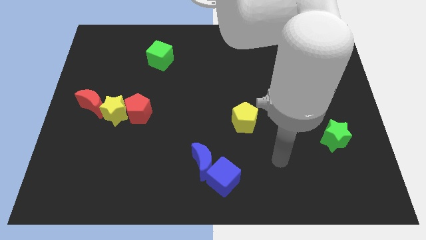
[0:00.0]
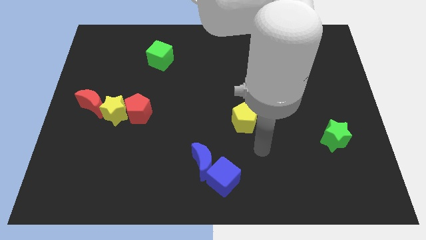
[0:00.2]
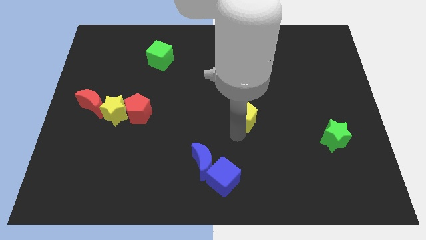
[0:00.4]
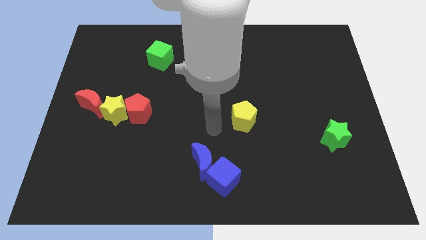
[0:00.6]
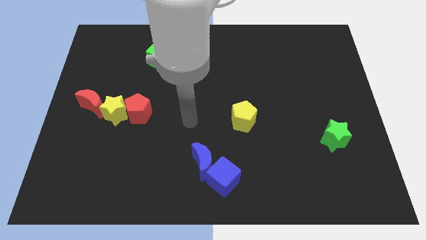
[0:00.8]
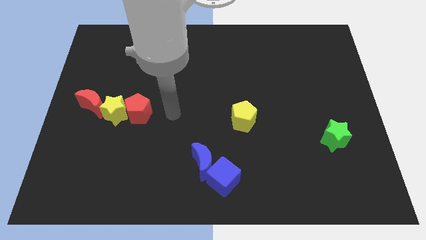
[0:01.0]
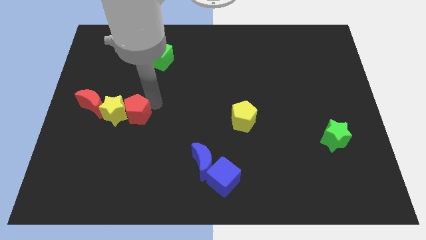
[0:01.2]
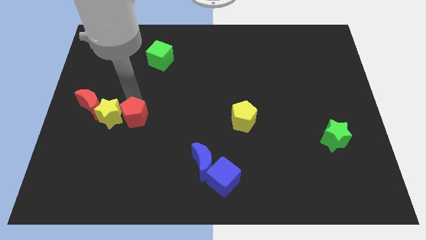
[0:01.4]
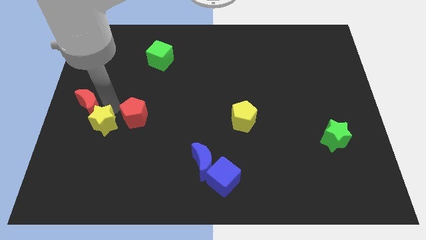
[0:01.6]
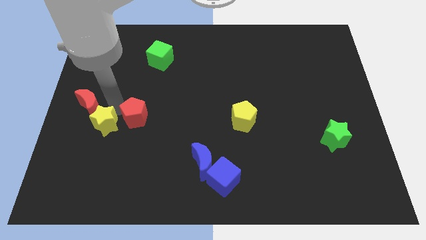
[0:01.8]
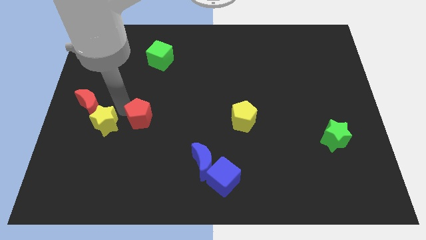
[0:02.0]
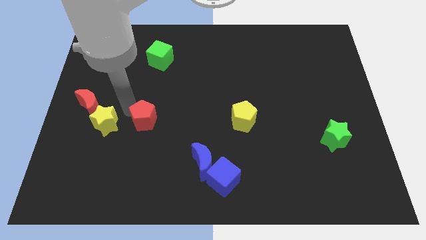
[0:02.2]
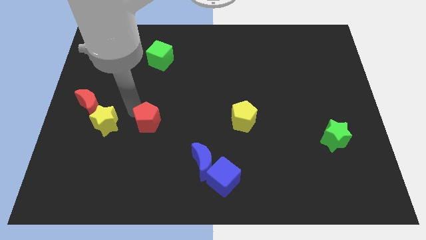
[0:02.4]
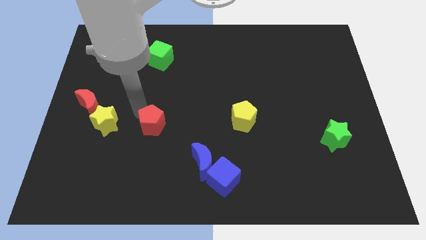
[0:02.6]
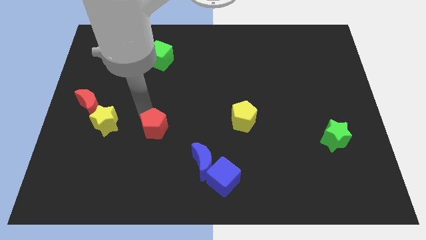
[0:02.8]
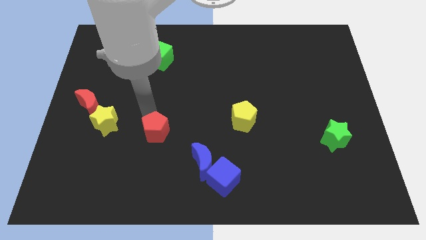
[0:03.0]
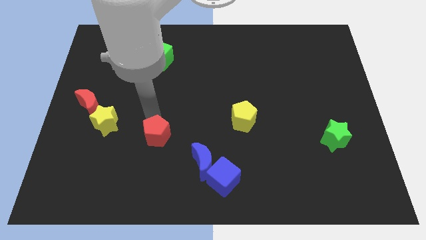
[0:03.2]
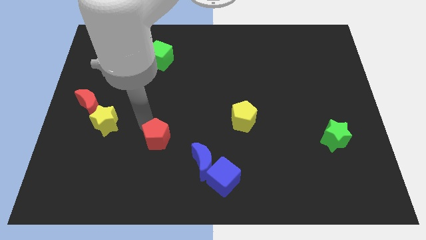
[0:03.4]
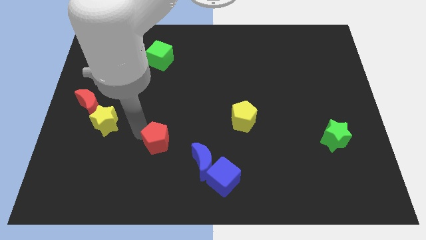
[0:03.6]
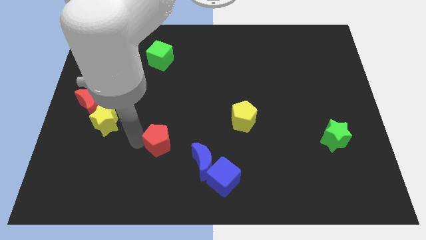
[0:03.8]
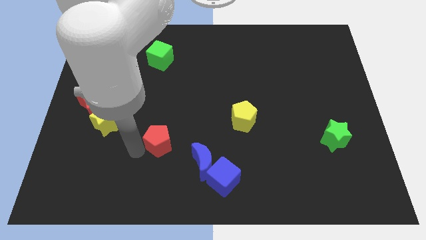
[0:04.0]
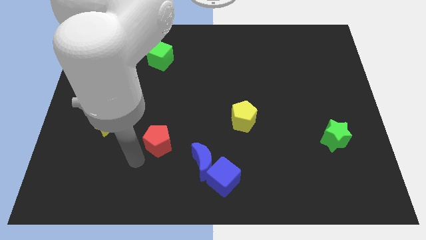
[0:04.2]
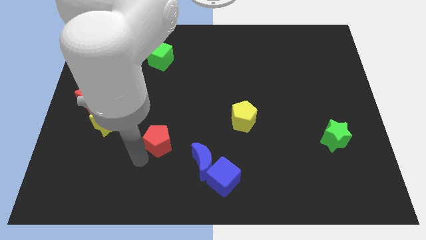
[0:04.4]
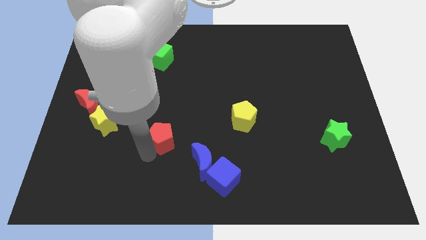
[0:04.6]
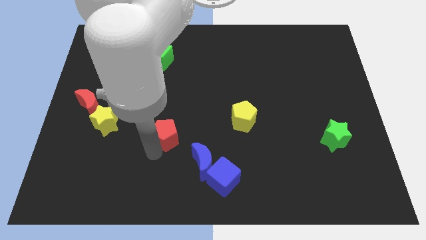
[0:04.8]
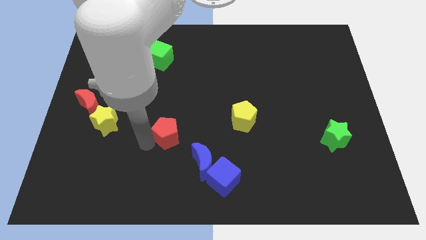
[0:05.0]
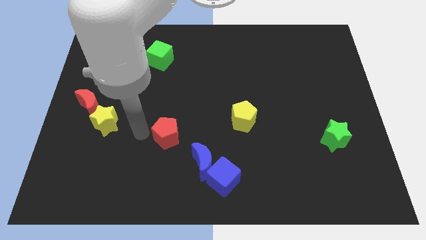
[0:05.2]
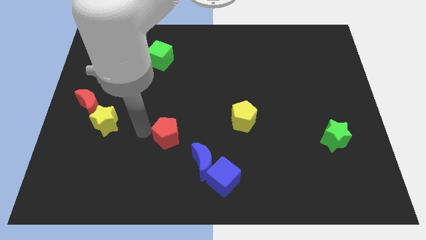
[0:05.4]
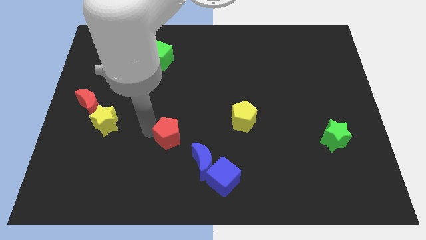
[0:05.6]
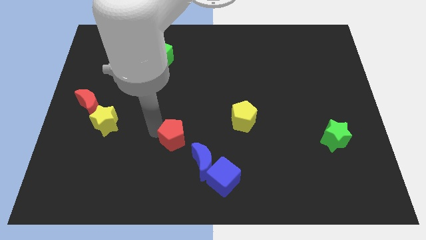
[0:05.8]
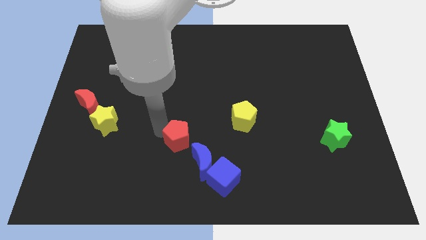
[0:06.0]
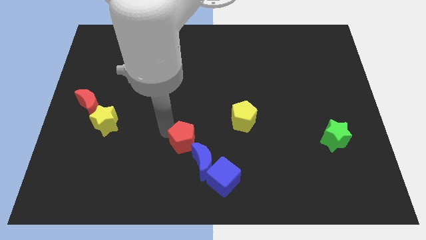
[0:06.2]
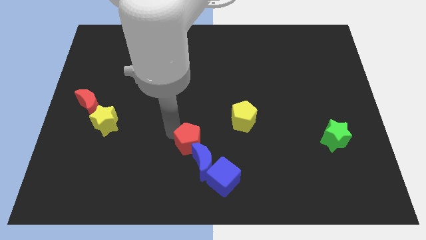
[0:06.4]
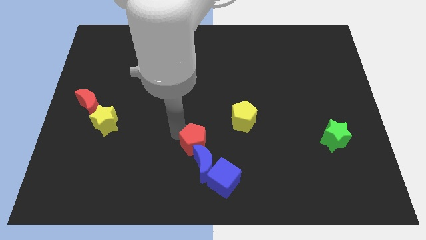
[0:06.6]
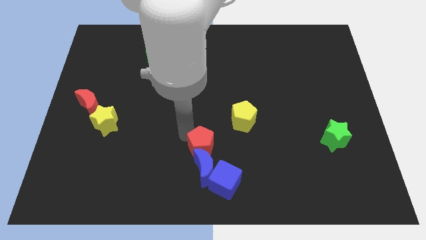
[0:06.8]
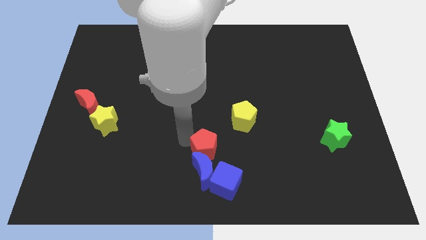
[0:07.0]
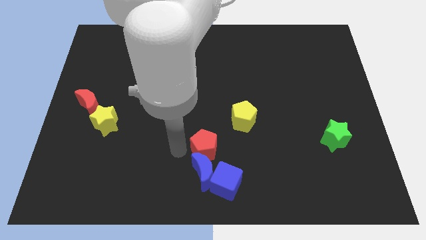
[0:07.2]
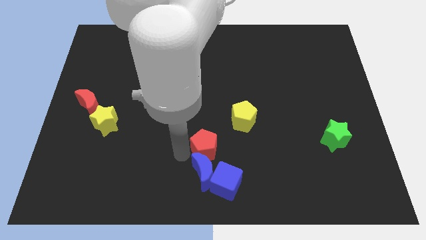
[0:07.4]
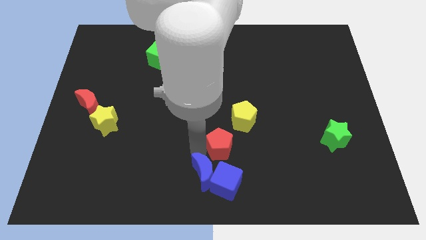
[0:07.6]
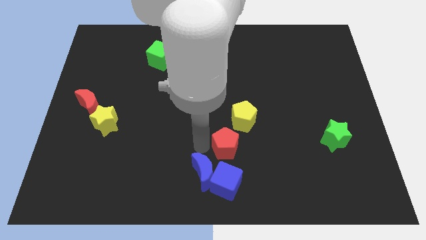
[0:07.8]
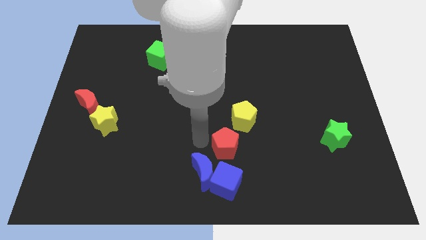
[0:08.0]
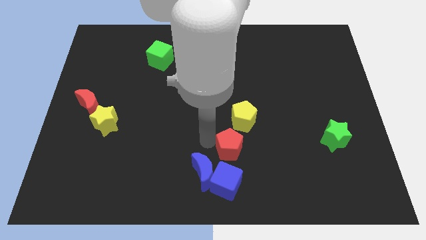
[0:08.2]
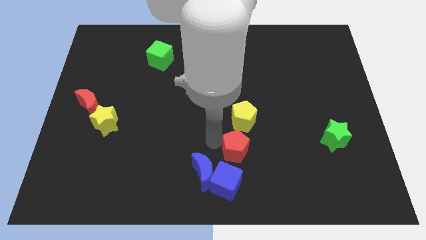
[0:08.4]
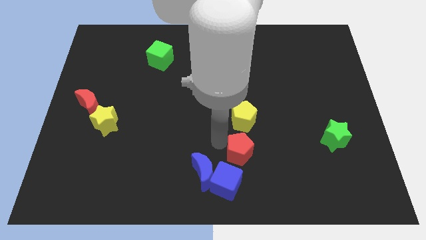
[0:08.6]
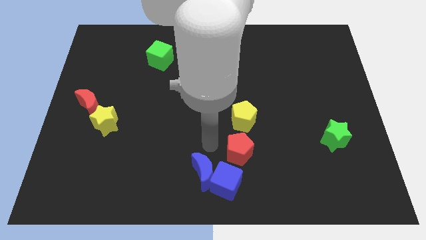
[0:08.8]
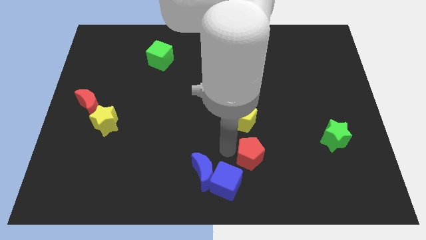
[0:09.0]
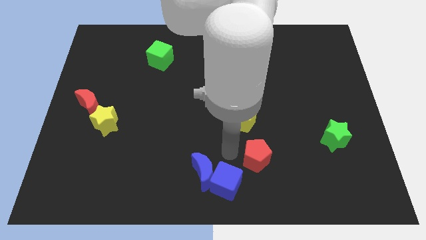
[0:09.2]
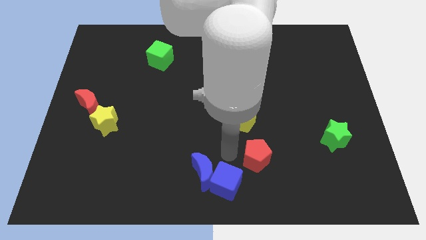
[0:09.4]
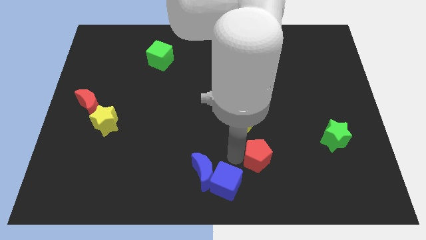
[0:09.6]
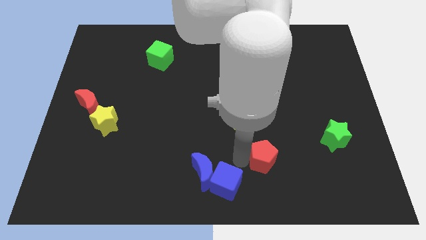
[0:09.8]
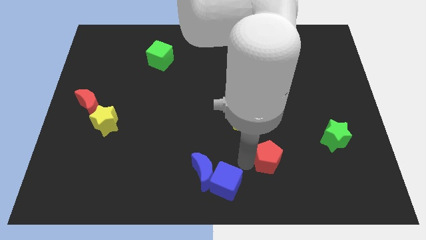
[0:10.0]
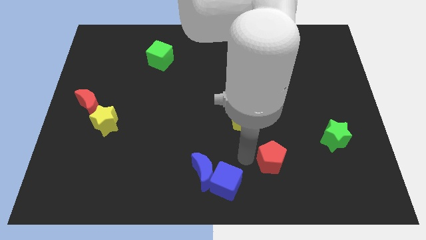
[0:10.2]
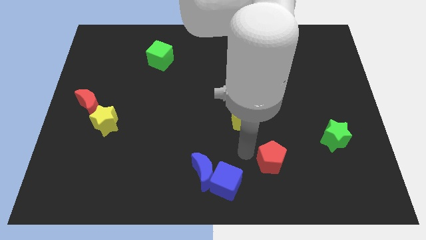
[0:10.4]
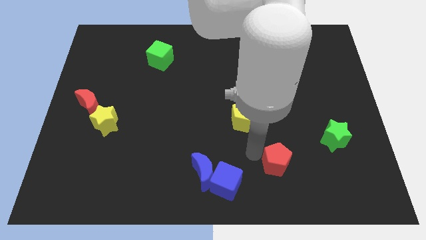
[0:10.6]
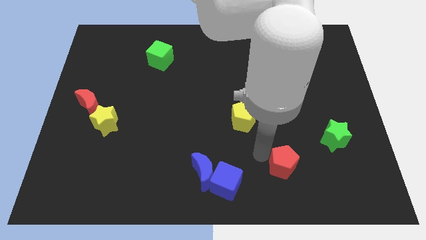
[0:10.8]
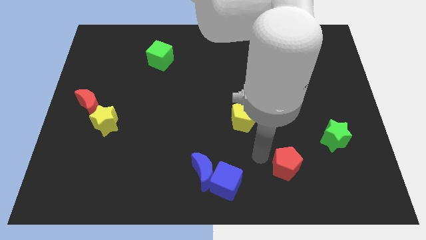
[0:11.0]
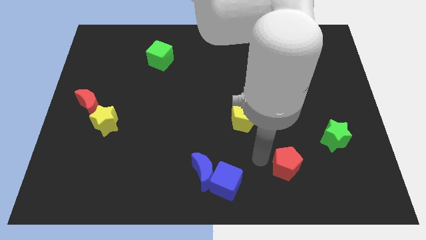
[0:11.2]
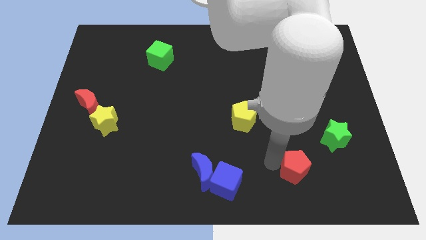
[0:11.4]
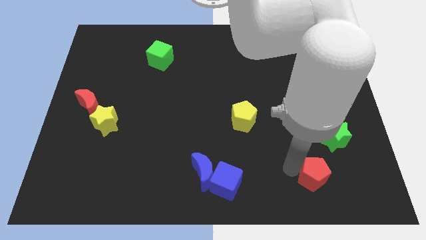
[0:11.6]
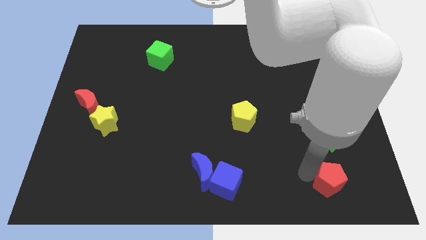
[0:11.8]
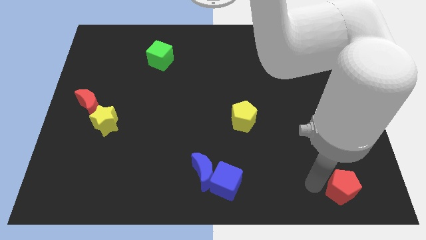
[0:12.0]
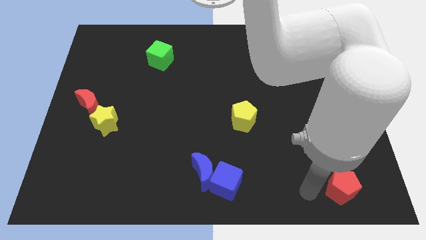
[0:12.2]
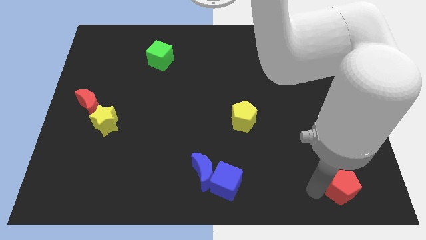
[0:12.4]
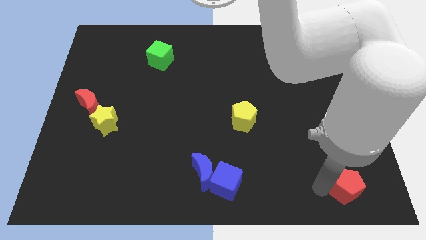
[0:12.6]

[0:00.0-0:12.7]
move the red pentagon to the bottom right

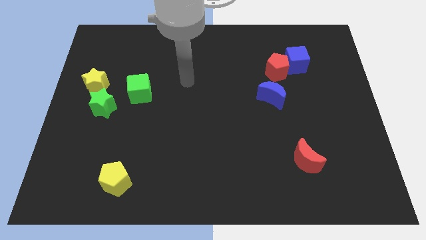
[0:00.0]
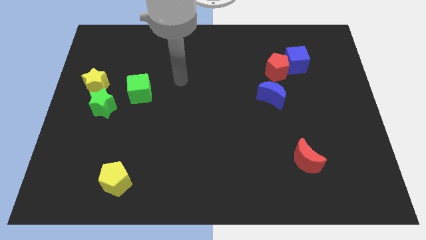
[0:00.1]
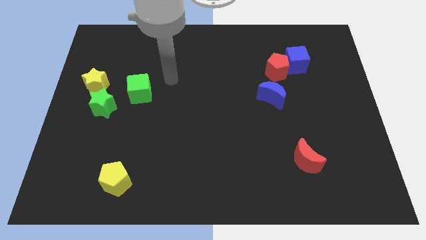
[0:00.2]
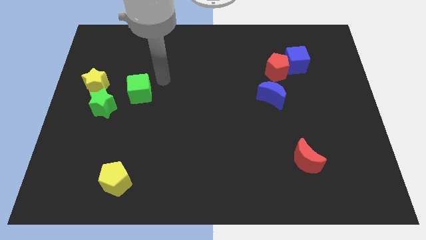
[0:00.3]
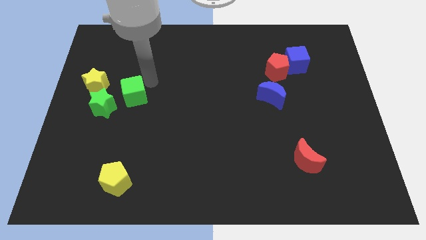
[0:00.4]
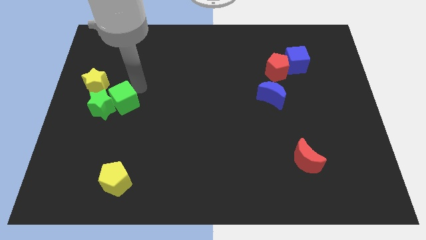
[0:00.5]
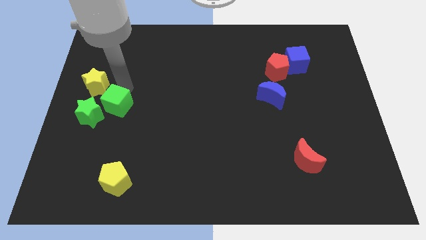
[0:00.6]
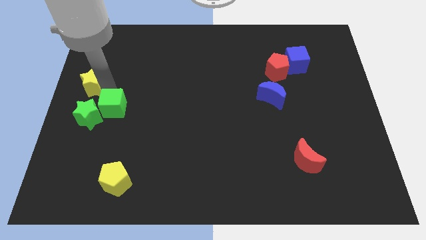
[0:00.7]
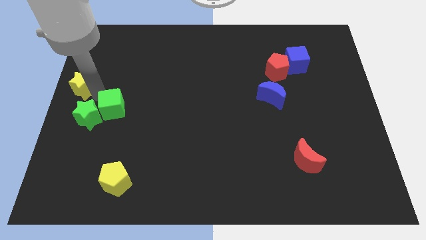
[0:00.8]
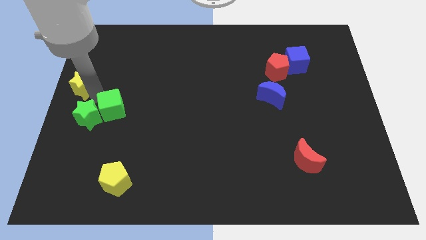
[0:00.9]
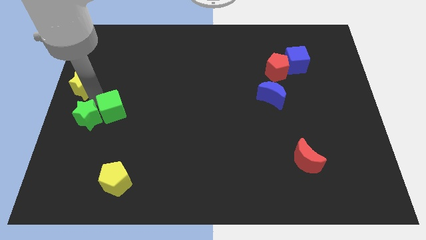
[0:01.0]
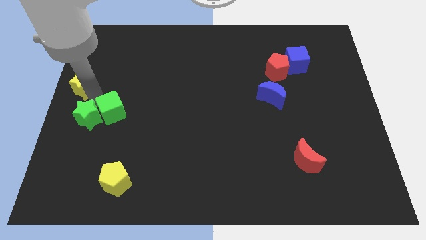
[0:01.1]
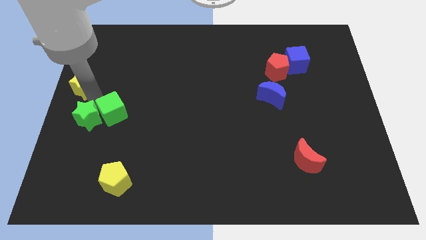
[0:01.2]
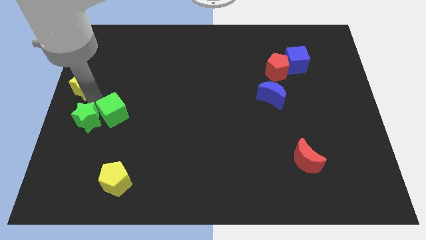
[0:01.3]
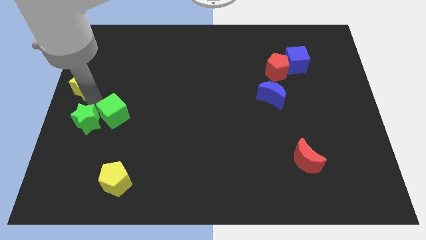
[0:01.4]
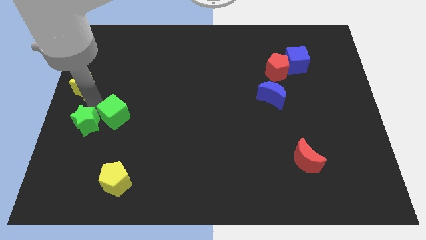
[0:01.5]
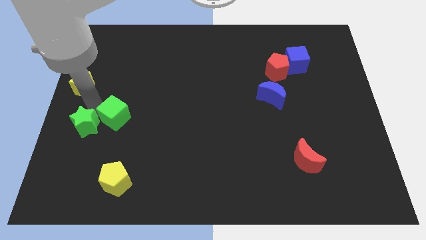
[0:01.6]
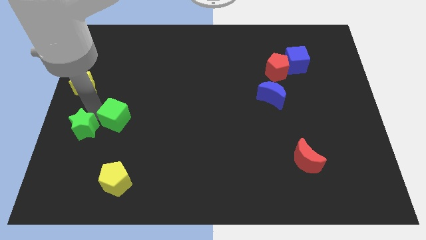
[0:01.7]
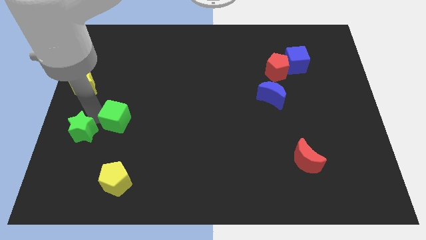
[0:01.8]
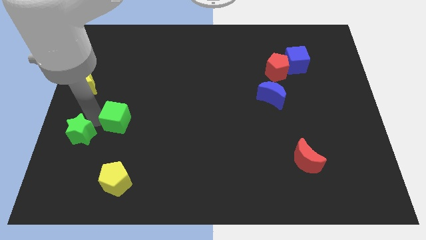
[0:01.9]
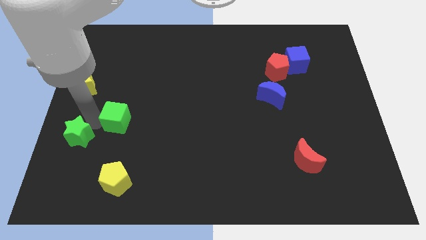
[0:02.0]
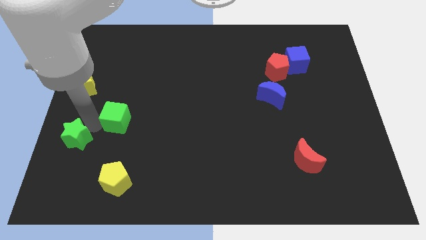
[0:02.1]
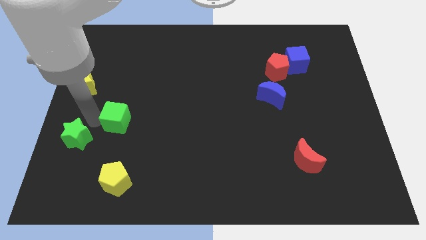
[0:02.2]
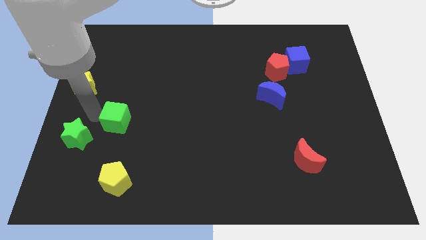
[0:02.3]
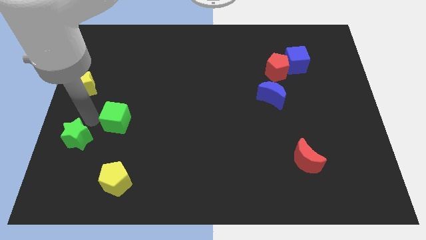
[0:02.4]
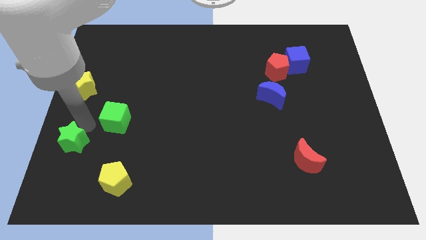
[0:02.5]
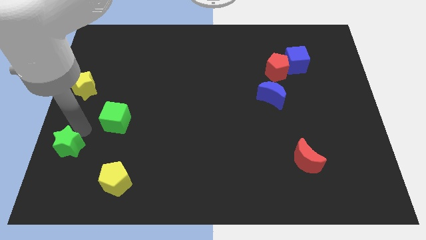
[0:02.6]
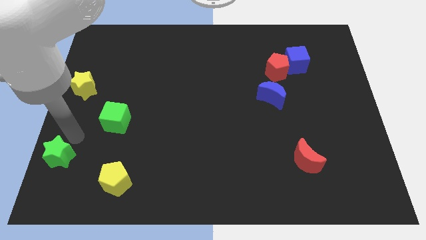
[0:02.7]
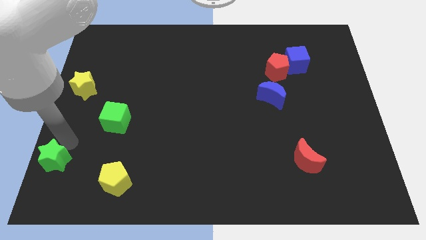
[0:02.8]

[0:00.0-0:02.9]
push the green star to the bottom left of the board
